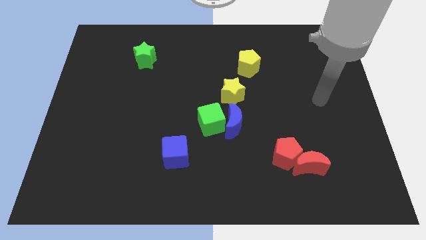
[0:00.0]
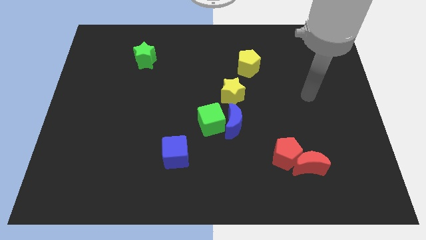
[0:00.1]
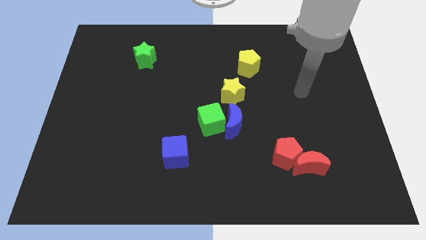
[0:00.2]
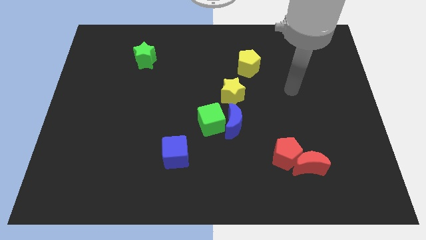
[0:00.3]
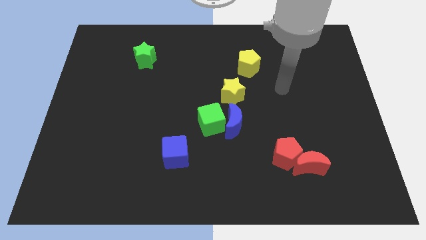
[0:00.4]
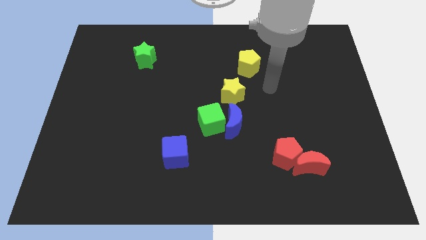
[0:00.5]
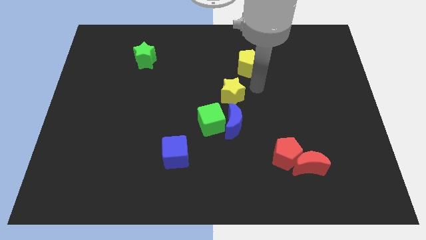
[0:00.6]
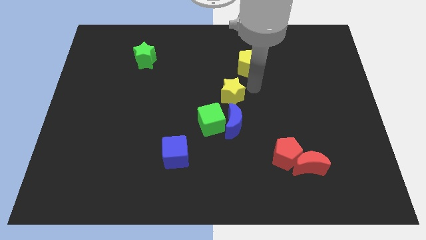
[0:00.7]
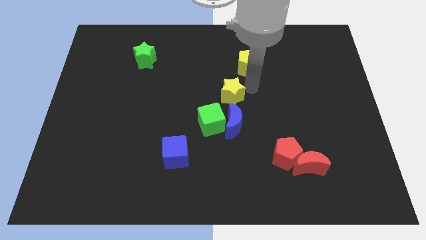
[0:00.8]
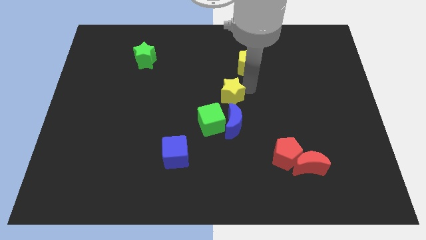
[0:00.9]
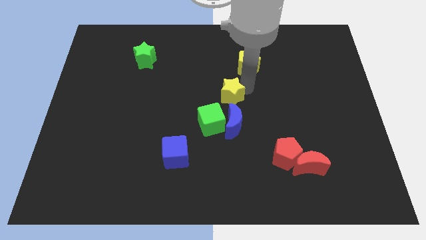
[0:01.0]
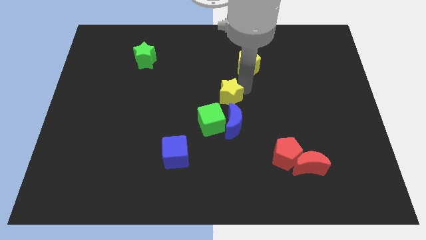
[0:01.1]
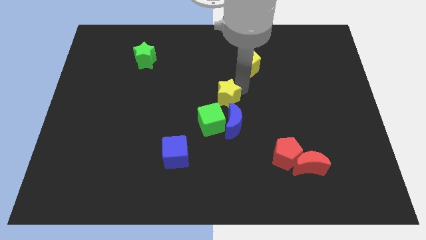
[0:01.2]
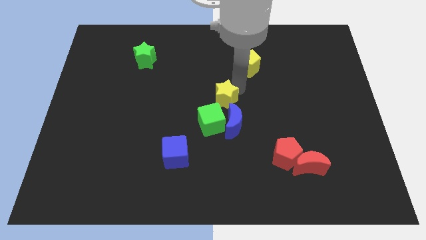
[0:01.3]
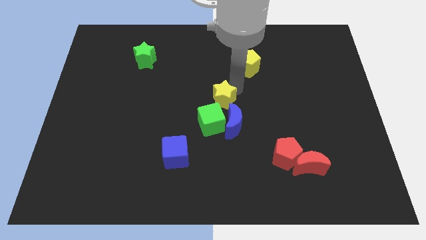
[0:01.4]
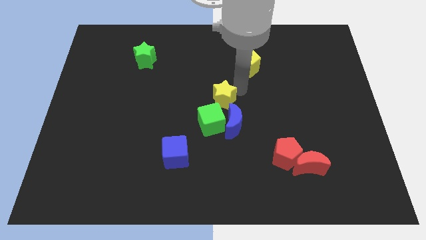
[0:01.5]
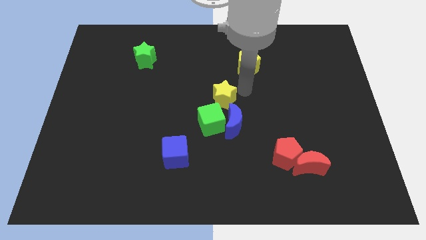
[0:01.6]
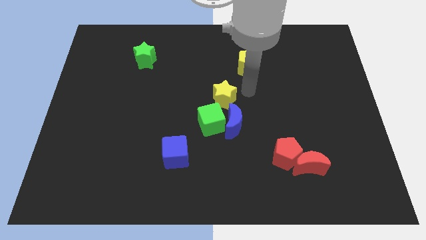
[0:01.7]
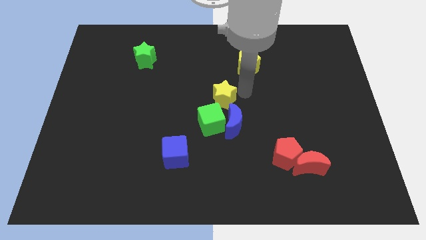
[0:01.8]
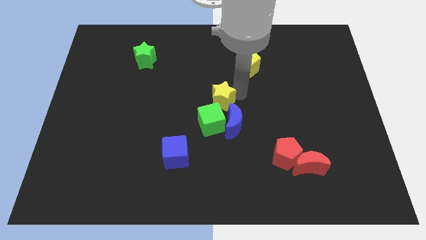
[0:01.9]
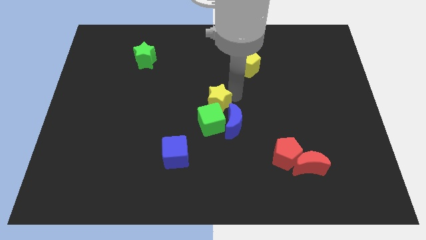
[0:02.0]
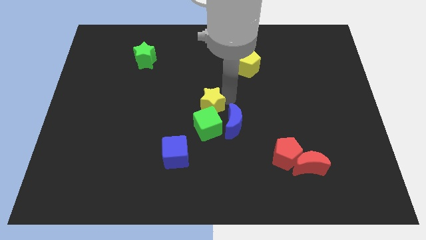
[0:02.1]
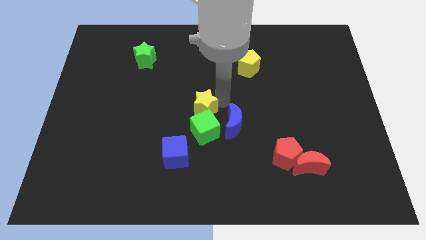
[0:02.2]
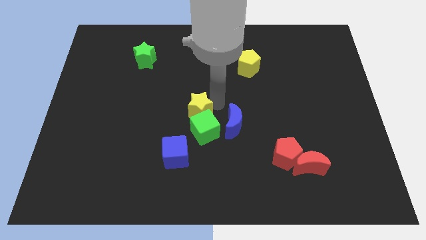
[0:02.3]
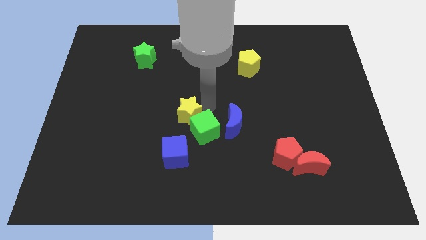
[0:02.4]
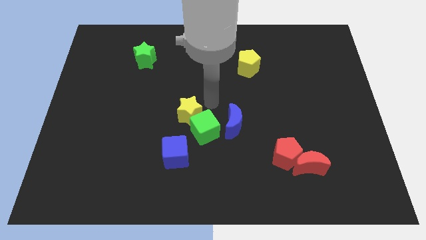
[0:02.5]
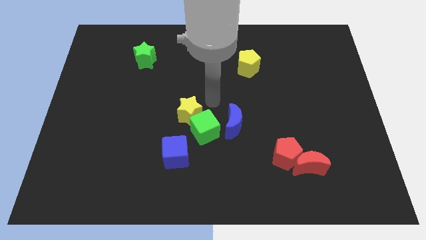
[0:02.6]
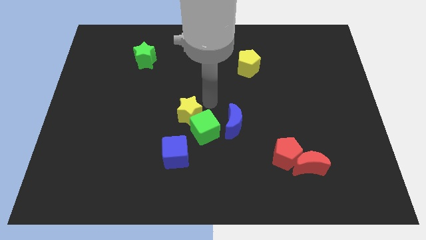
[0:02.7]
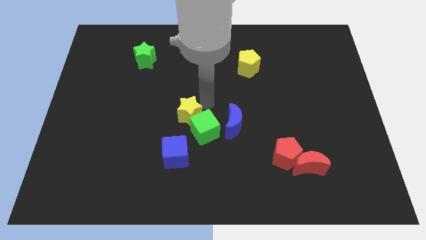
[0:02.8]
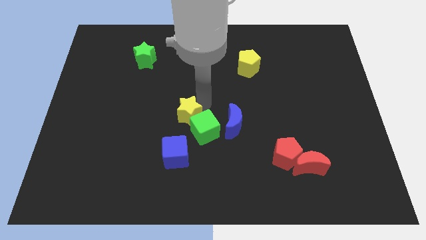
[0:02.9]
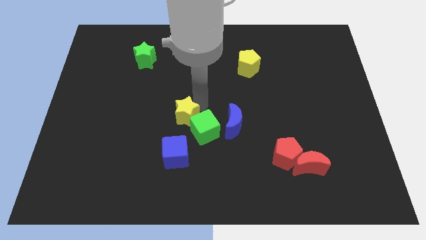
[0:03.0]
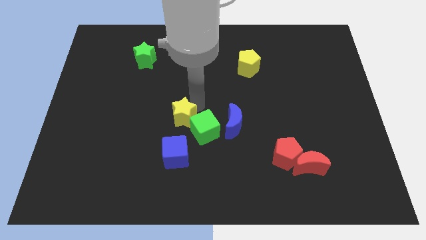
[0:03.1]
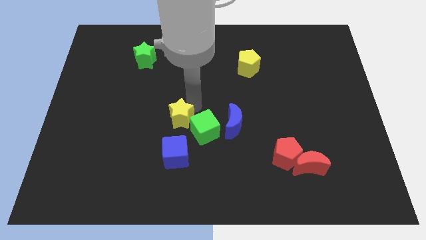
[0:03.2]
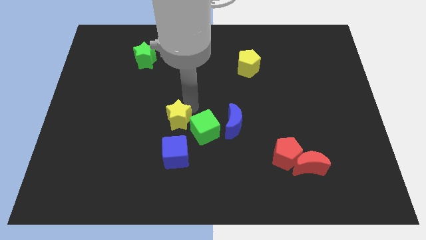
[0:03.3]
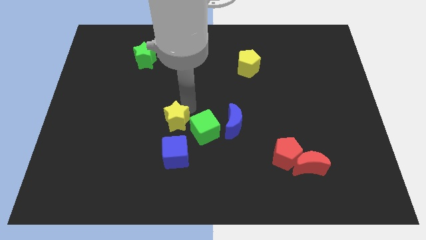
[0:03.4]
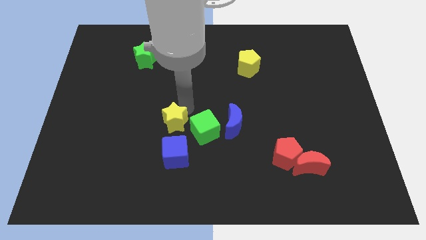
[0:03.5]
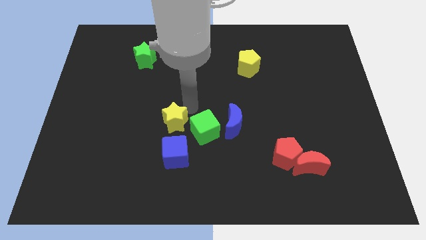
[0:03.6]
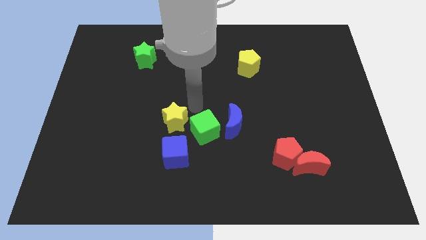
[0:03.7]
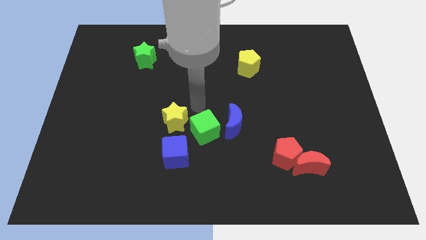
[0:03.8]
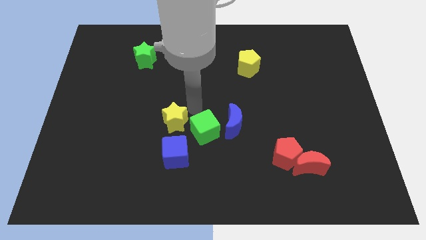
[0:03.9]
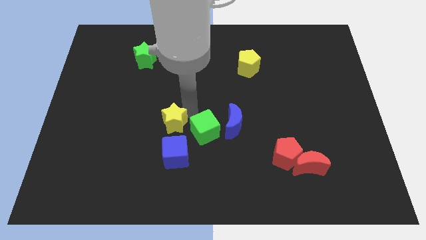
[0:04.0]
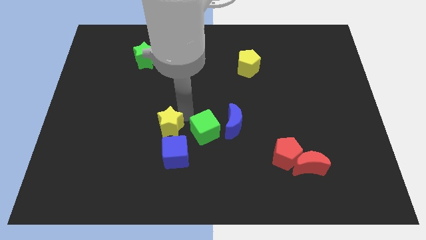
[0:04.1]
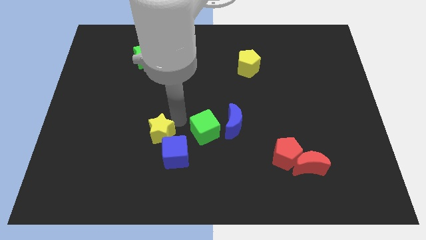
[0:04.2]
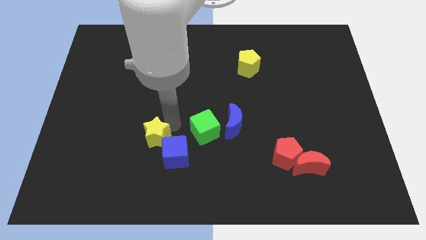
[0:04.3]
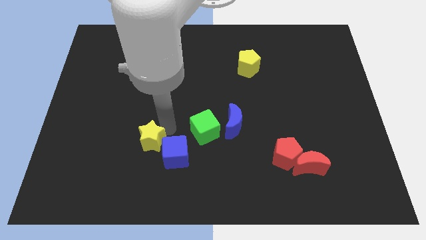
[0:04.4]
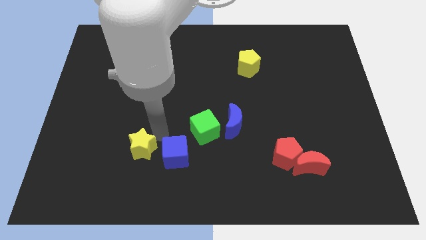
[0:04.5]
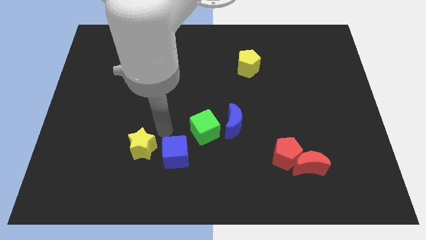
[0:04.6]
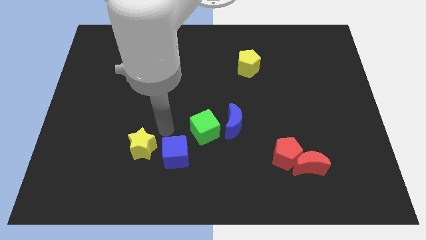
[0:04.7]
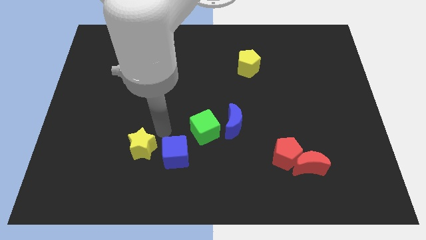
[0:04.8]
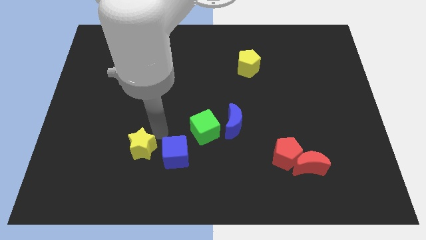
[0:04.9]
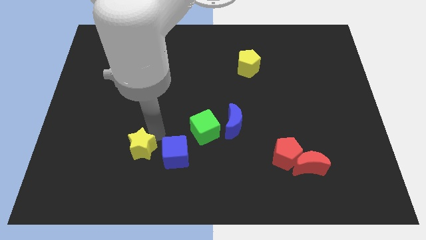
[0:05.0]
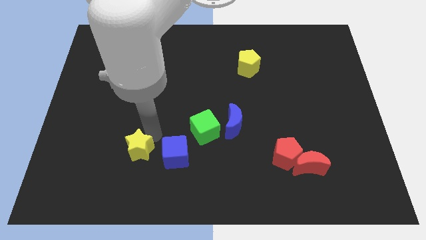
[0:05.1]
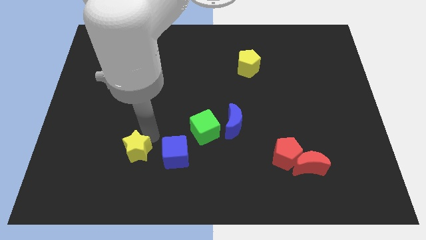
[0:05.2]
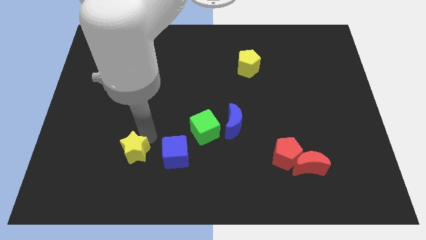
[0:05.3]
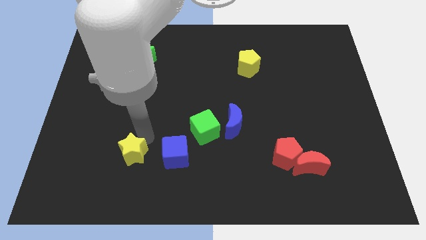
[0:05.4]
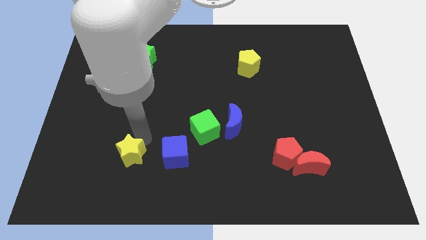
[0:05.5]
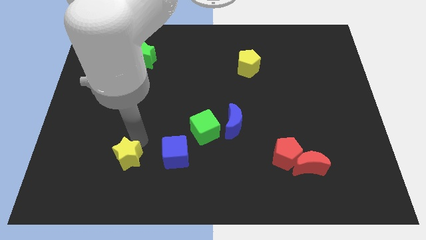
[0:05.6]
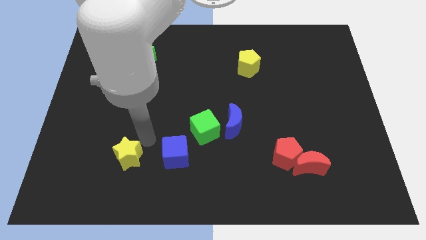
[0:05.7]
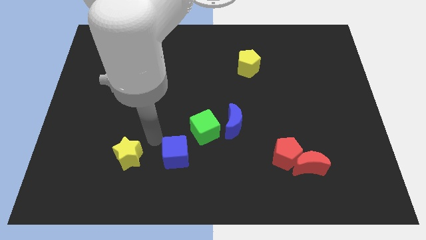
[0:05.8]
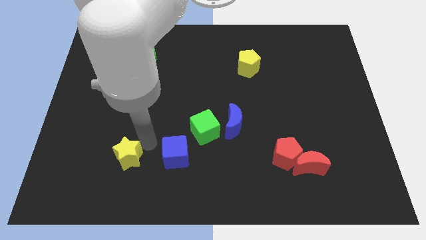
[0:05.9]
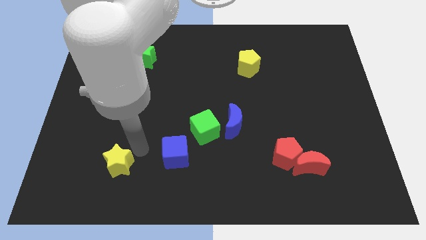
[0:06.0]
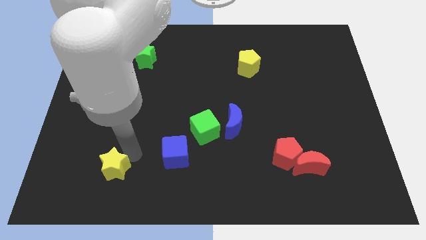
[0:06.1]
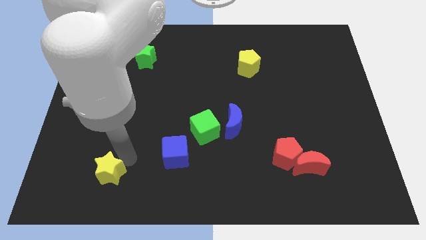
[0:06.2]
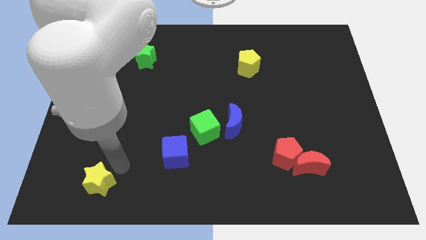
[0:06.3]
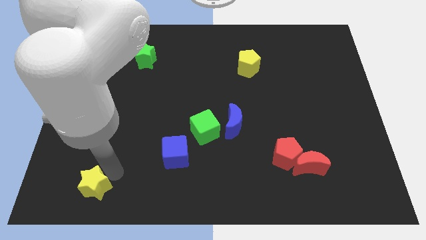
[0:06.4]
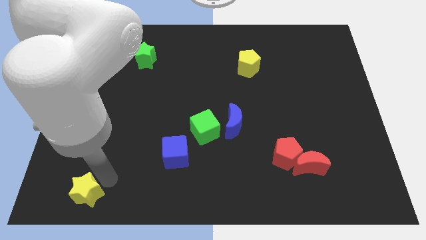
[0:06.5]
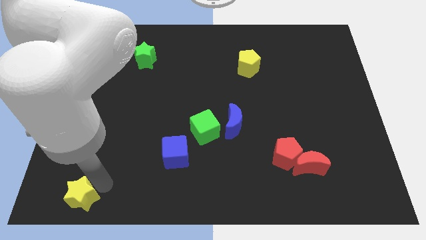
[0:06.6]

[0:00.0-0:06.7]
put the yellow star to the bottom left corner
